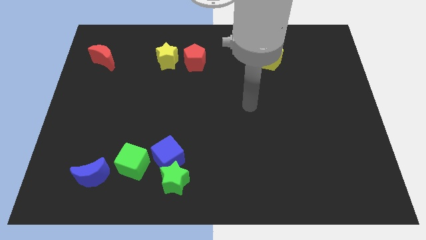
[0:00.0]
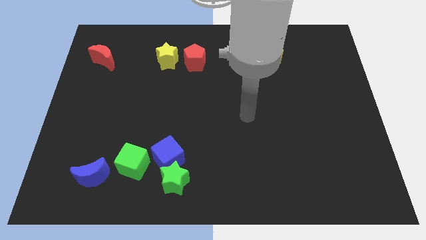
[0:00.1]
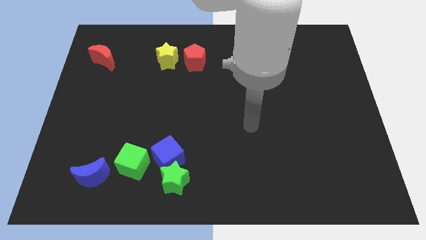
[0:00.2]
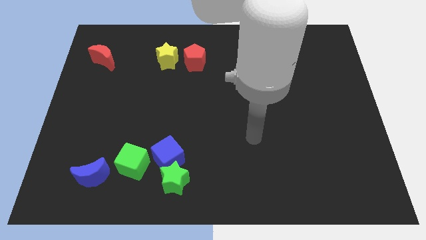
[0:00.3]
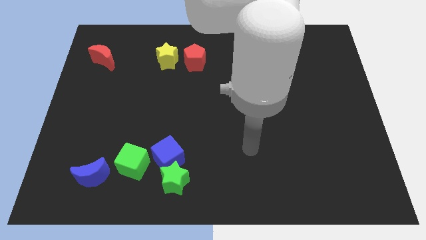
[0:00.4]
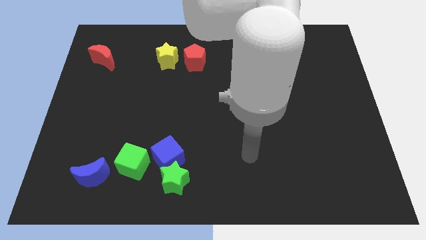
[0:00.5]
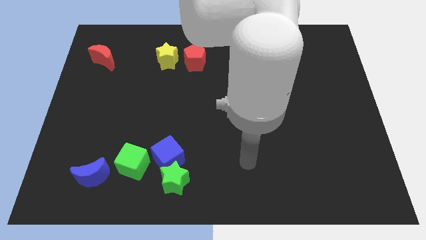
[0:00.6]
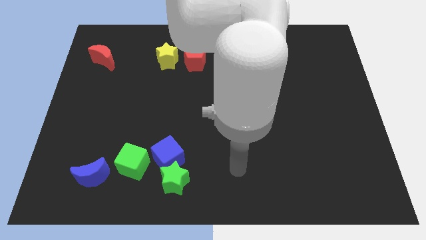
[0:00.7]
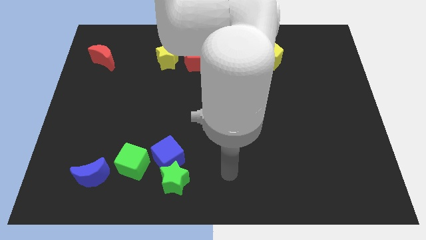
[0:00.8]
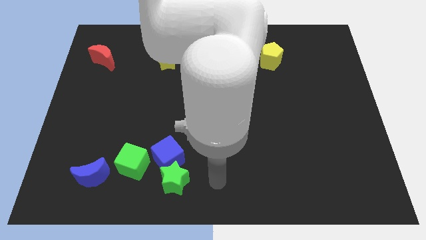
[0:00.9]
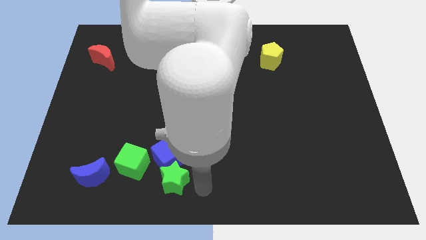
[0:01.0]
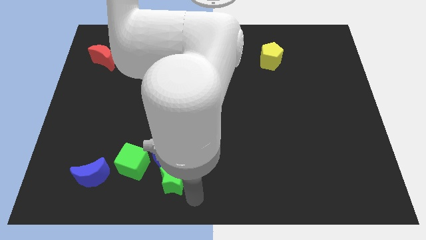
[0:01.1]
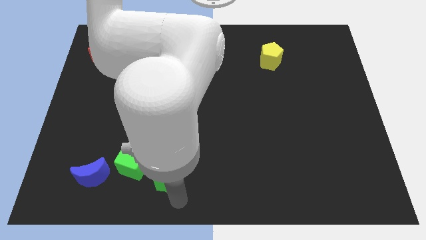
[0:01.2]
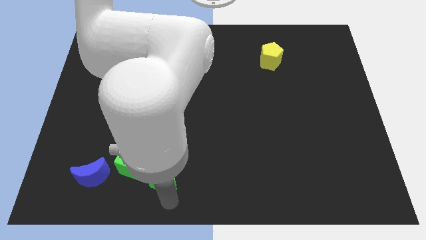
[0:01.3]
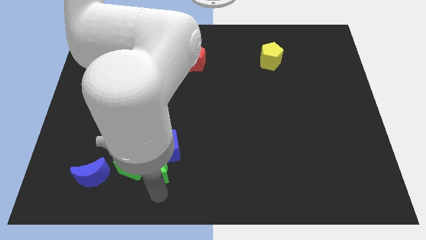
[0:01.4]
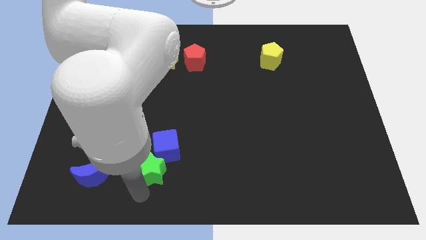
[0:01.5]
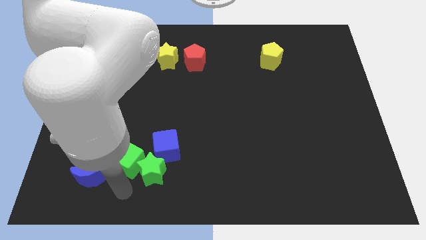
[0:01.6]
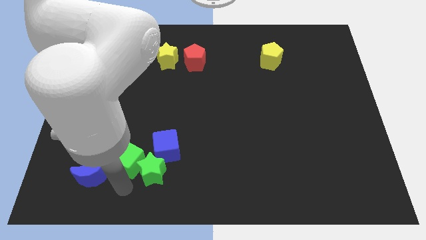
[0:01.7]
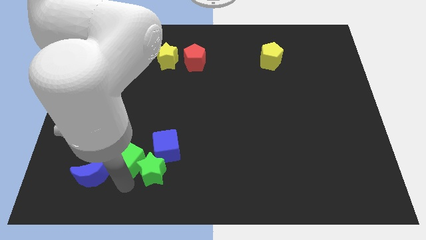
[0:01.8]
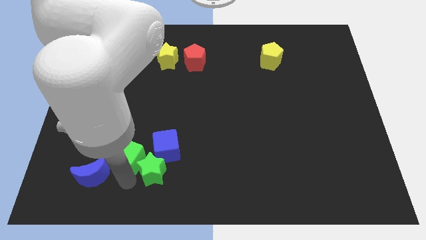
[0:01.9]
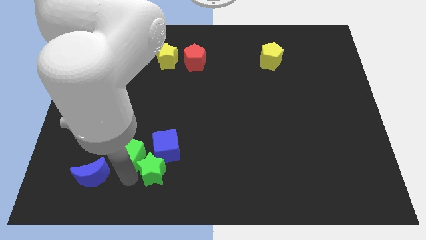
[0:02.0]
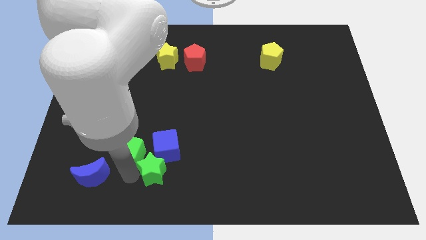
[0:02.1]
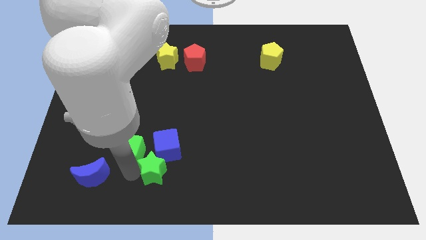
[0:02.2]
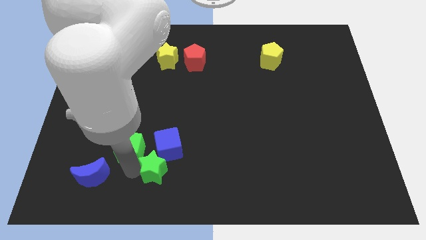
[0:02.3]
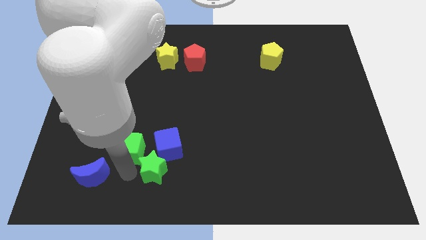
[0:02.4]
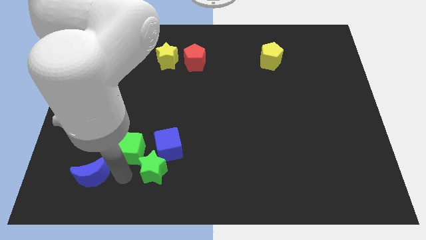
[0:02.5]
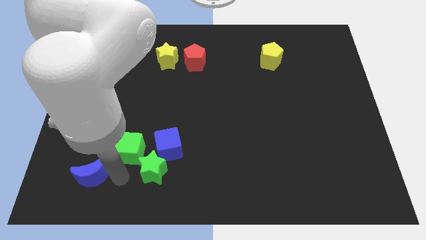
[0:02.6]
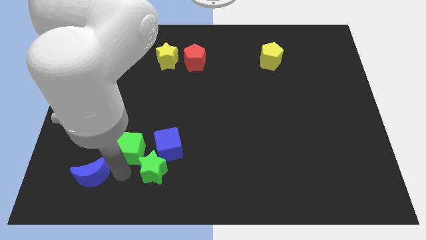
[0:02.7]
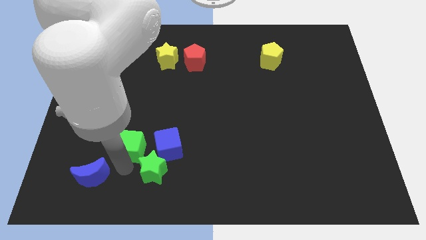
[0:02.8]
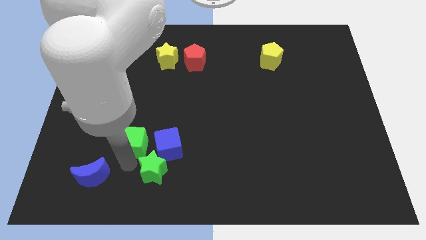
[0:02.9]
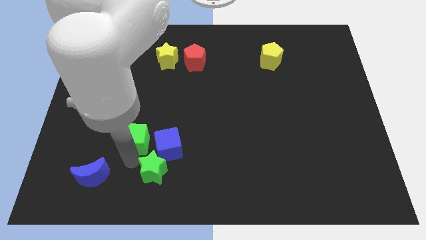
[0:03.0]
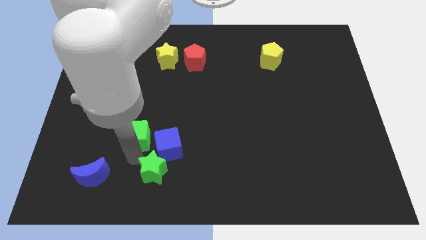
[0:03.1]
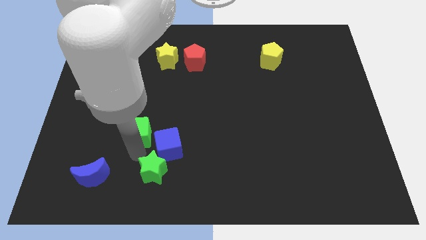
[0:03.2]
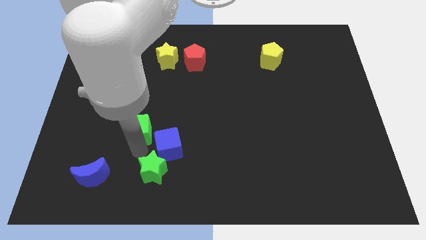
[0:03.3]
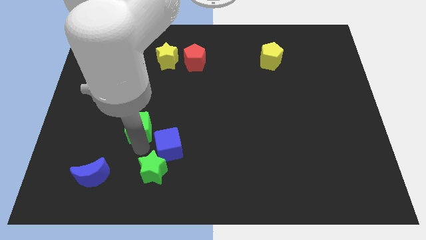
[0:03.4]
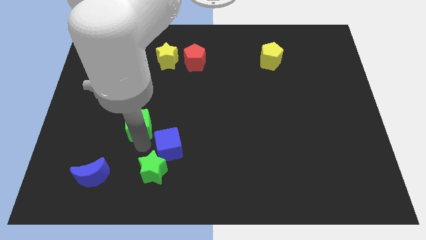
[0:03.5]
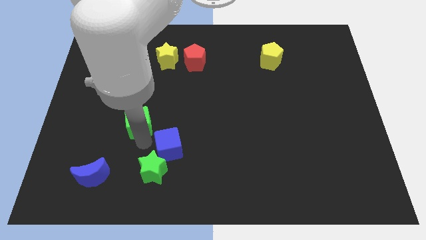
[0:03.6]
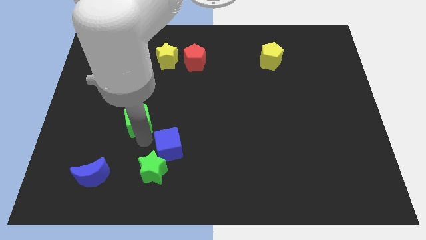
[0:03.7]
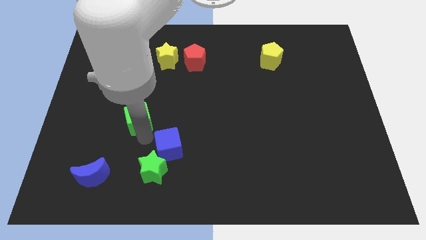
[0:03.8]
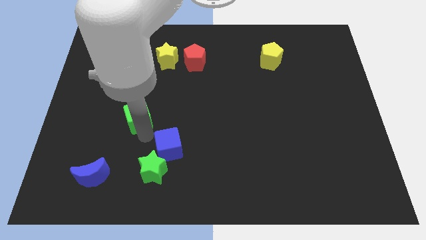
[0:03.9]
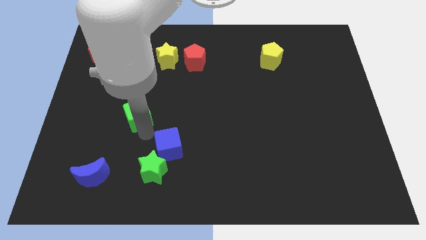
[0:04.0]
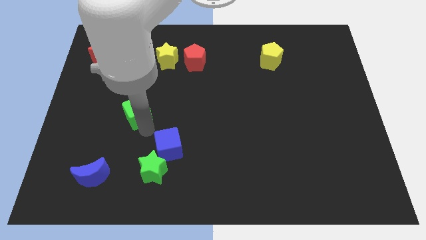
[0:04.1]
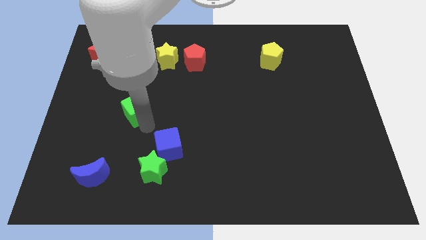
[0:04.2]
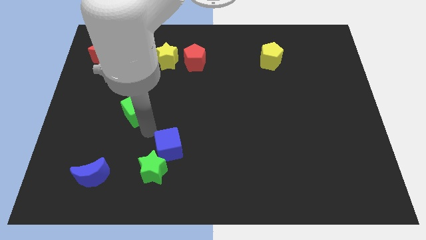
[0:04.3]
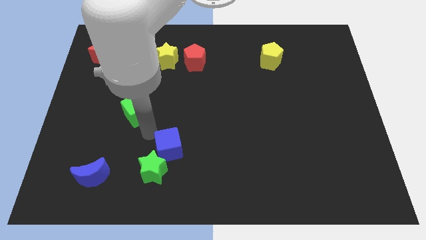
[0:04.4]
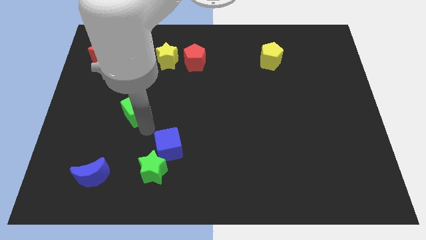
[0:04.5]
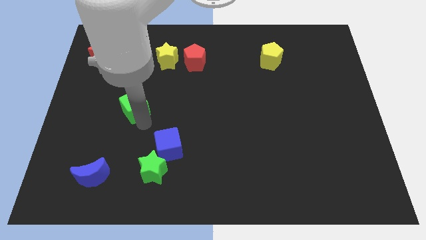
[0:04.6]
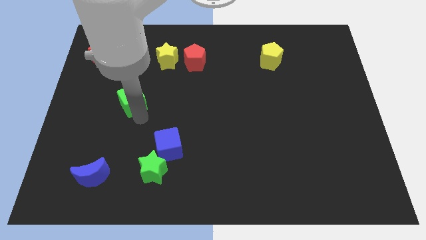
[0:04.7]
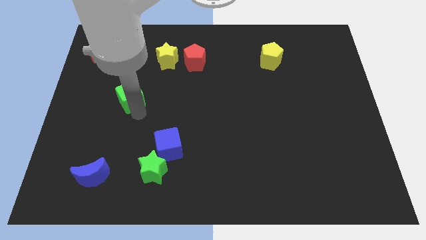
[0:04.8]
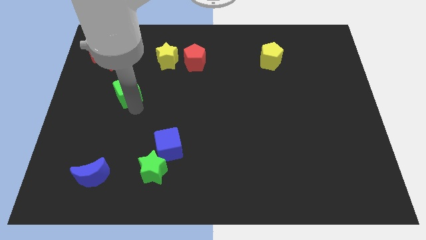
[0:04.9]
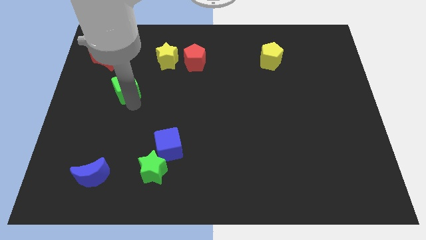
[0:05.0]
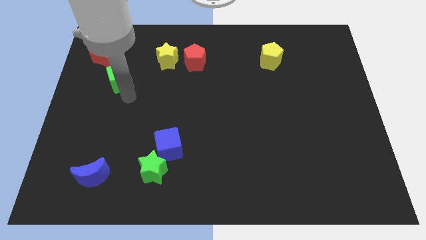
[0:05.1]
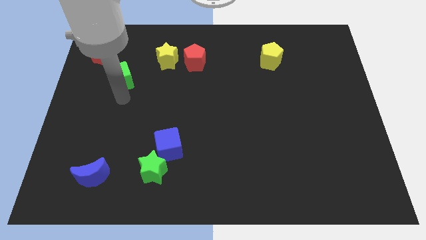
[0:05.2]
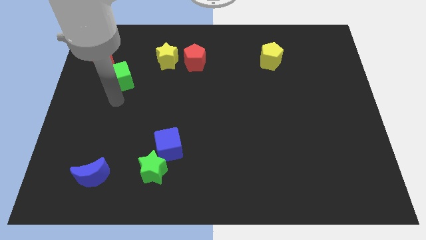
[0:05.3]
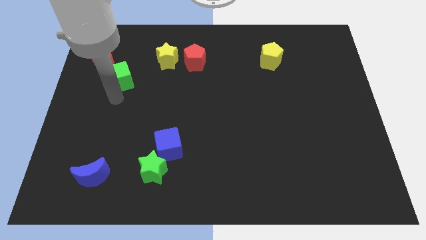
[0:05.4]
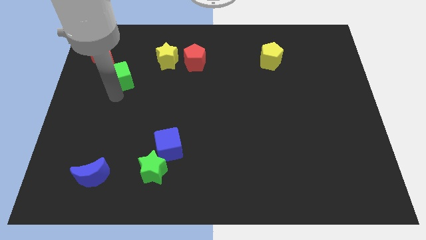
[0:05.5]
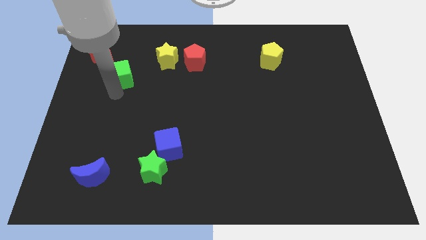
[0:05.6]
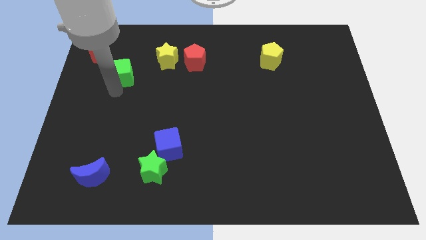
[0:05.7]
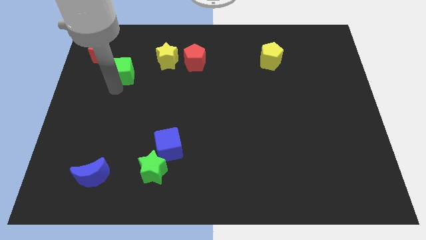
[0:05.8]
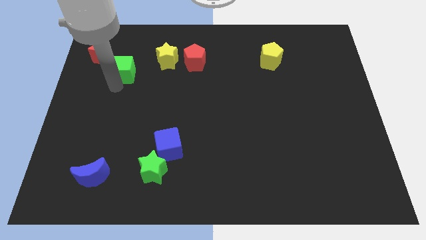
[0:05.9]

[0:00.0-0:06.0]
push the green cube left of the yellow star

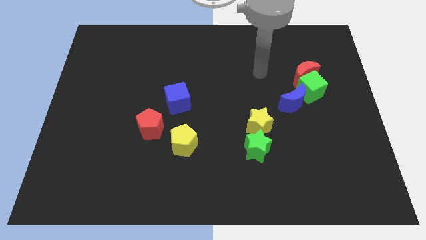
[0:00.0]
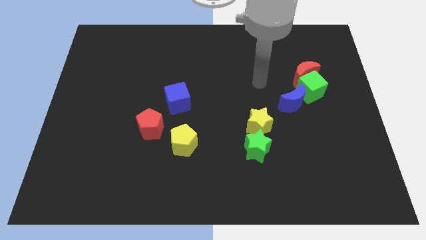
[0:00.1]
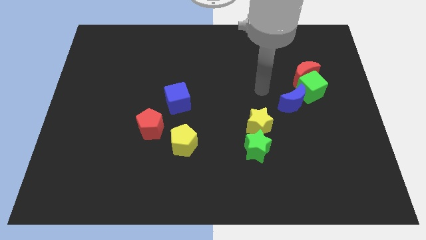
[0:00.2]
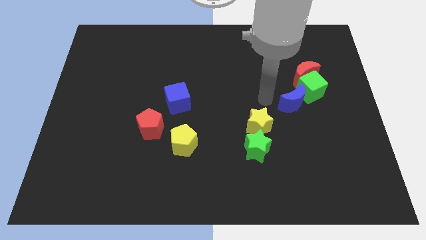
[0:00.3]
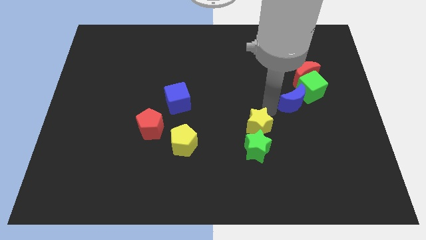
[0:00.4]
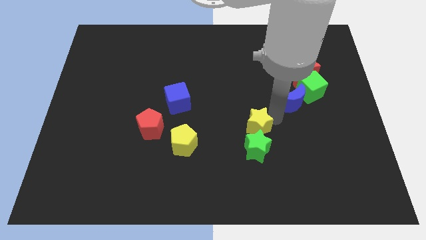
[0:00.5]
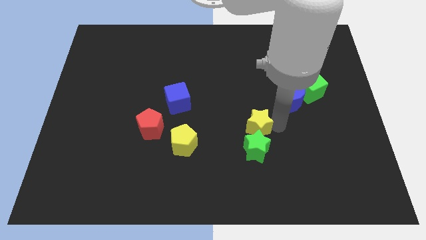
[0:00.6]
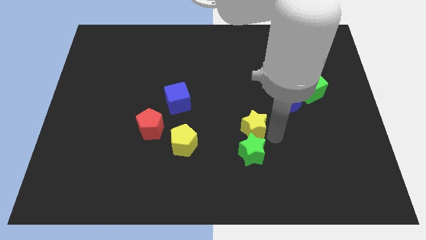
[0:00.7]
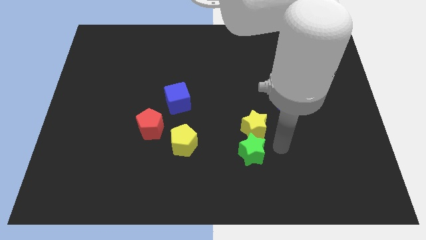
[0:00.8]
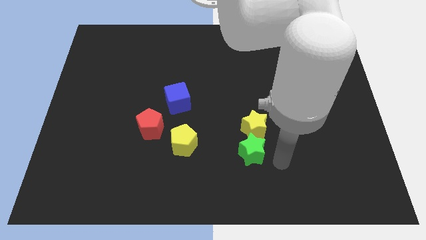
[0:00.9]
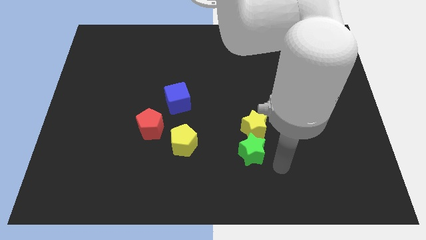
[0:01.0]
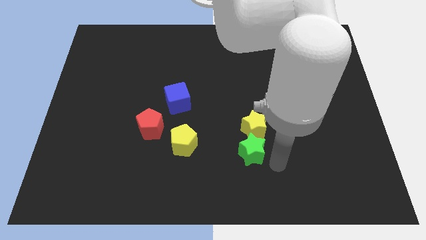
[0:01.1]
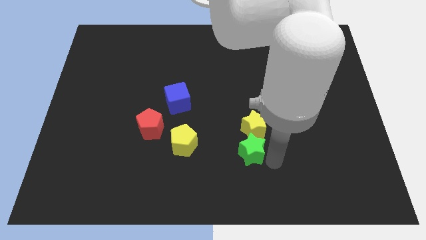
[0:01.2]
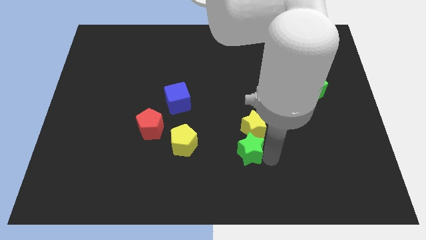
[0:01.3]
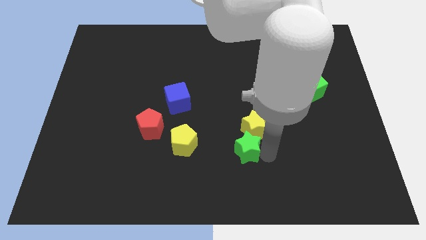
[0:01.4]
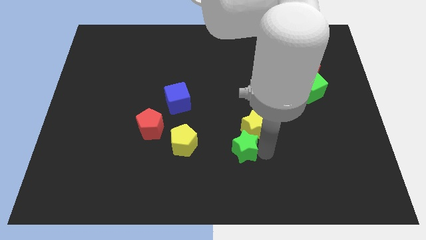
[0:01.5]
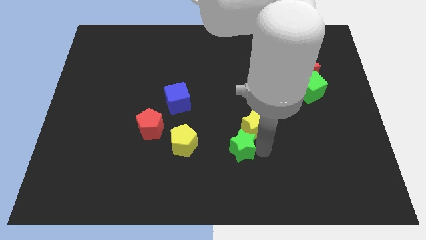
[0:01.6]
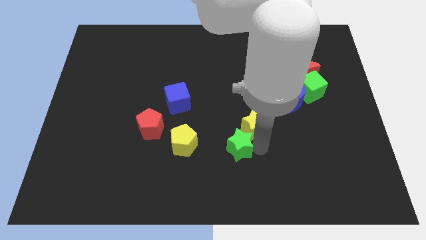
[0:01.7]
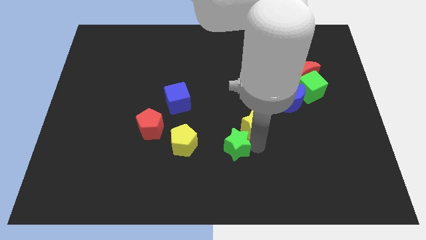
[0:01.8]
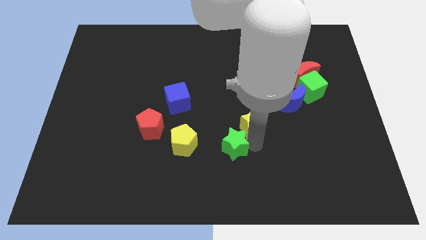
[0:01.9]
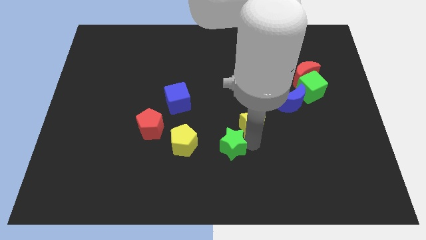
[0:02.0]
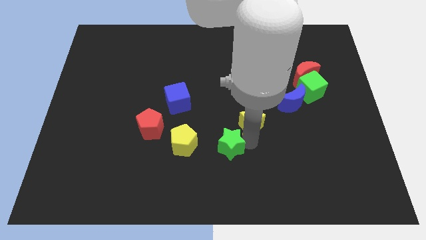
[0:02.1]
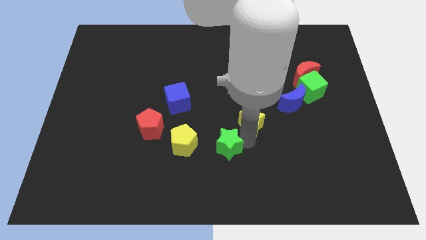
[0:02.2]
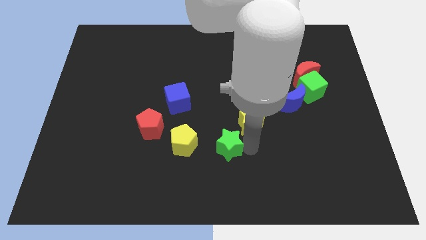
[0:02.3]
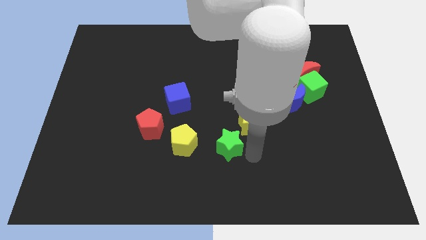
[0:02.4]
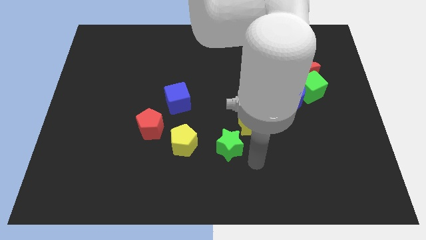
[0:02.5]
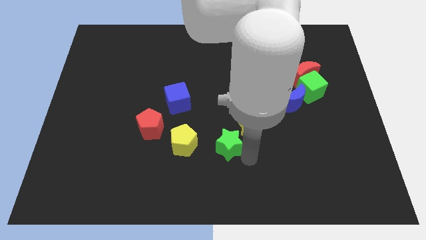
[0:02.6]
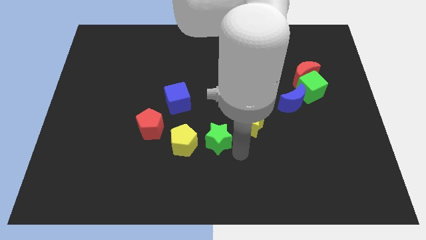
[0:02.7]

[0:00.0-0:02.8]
move the green star to the right side of the red pentagon
